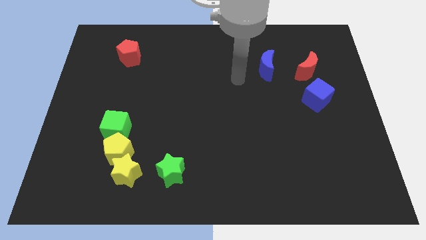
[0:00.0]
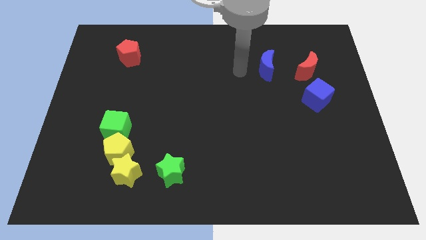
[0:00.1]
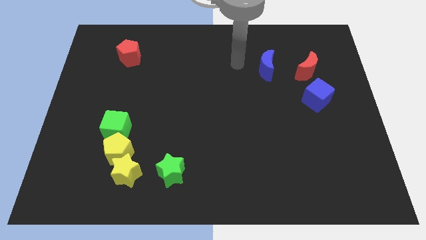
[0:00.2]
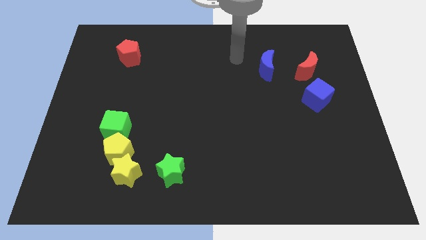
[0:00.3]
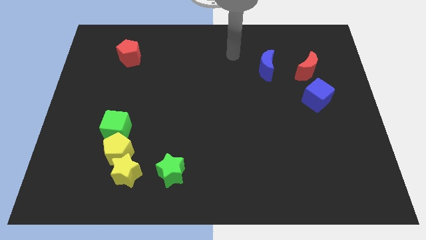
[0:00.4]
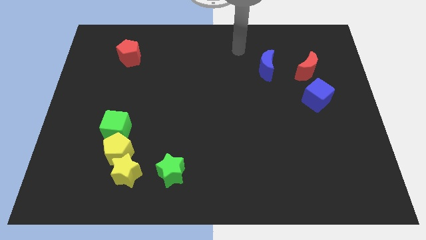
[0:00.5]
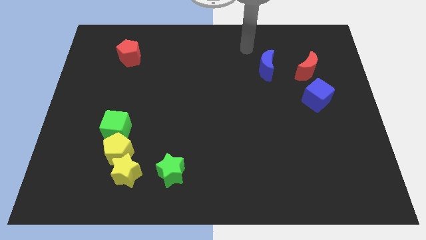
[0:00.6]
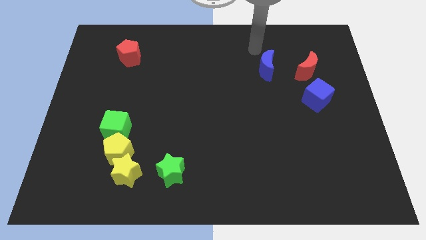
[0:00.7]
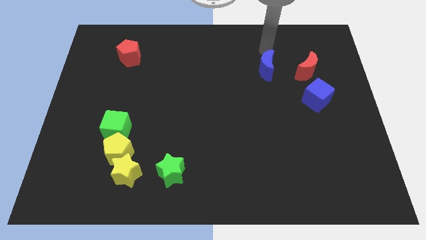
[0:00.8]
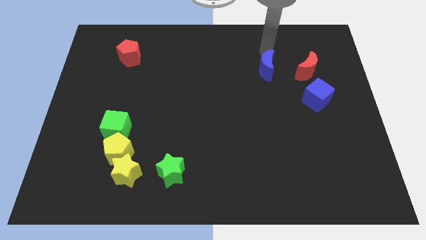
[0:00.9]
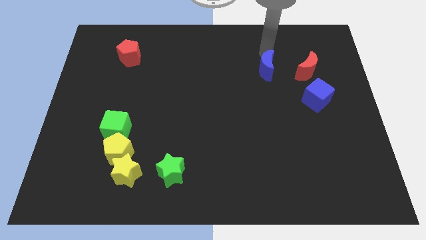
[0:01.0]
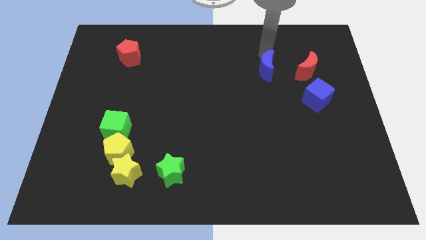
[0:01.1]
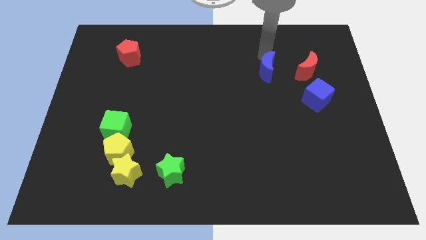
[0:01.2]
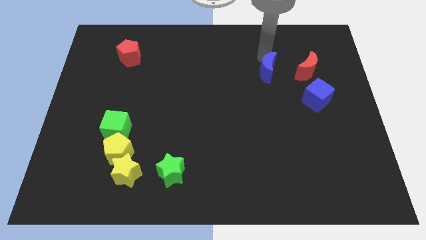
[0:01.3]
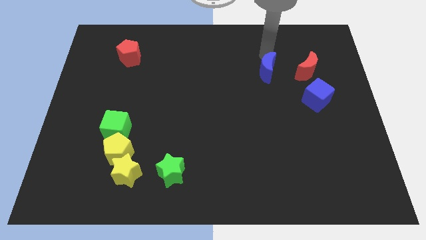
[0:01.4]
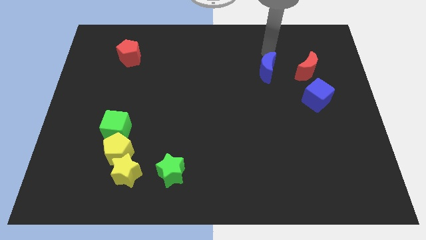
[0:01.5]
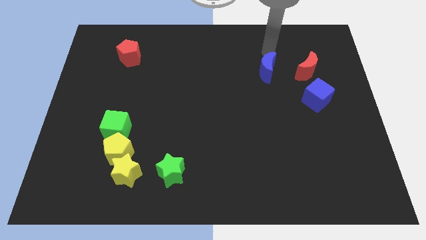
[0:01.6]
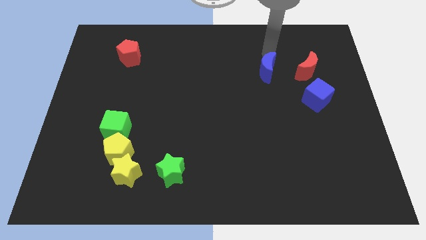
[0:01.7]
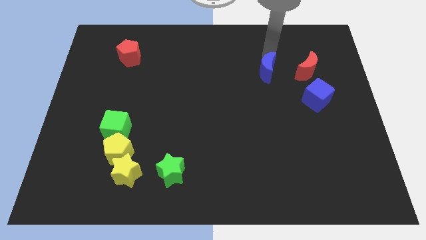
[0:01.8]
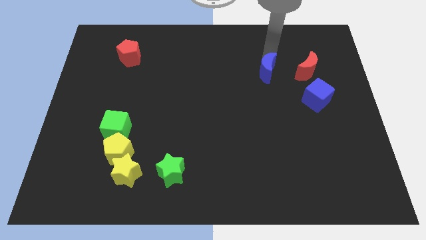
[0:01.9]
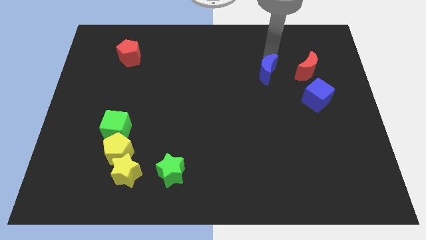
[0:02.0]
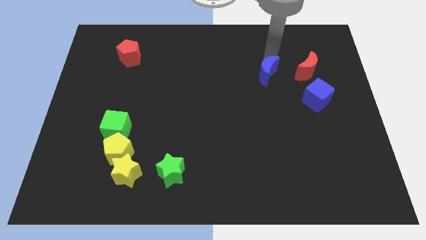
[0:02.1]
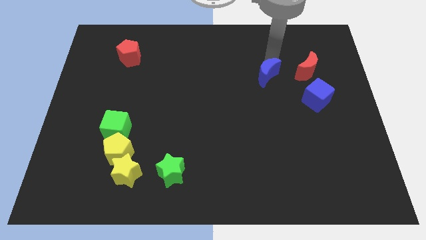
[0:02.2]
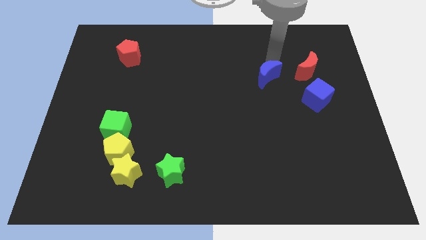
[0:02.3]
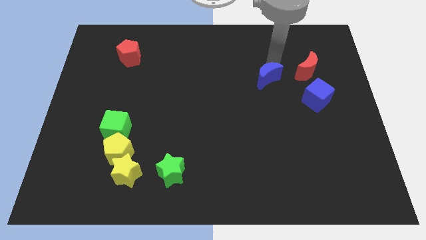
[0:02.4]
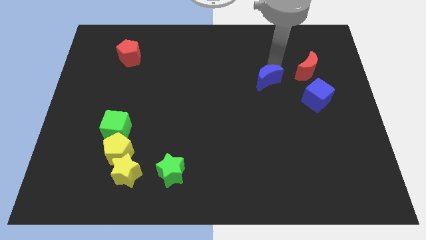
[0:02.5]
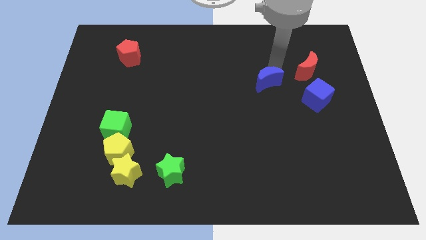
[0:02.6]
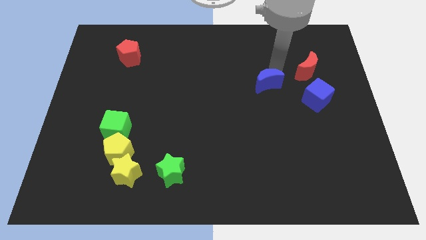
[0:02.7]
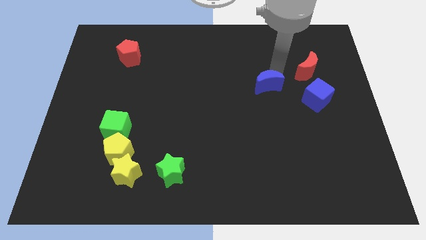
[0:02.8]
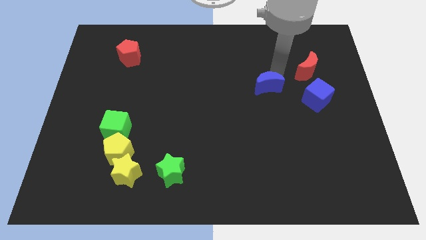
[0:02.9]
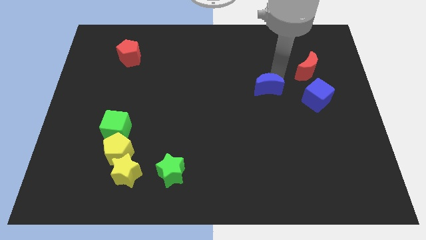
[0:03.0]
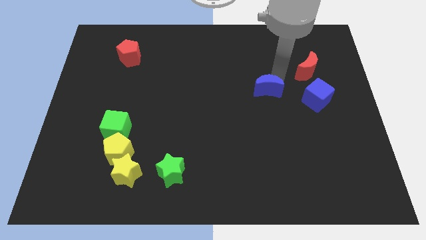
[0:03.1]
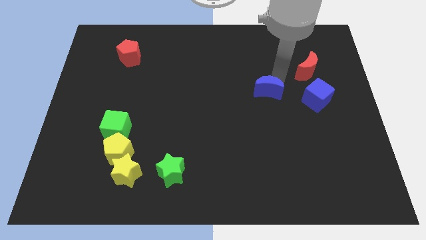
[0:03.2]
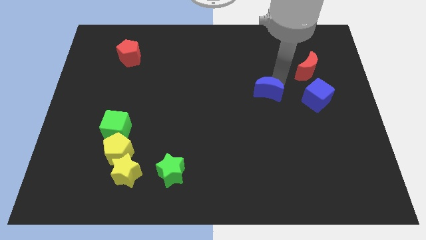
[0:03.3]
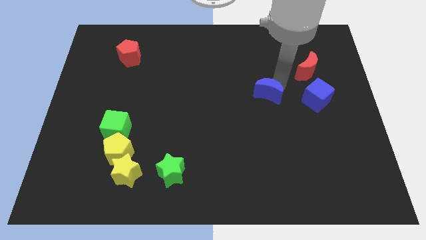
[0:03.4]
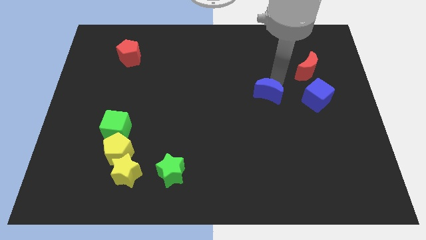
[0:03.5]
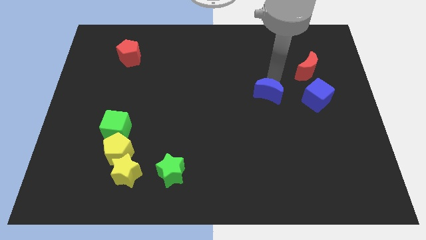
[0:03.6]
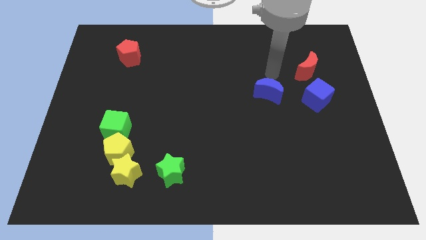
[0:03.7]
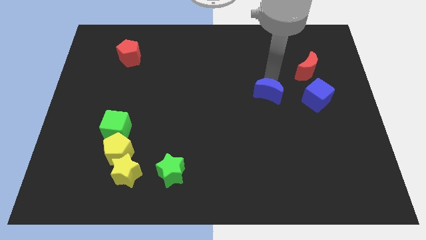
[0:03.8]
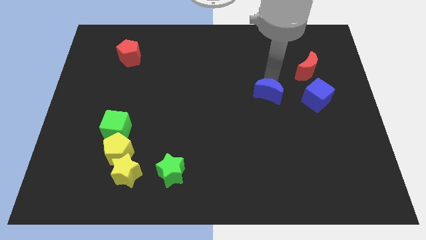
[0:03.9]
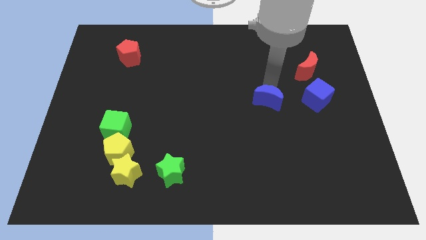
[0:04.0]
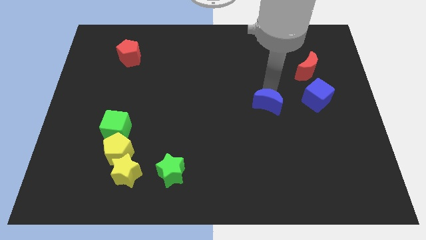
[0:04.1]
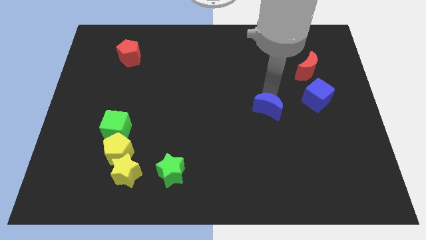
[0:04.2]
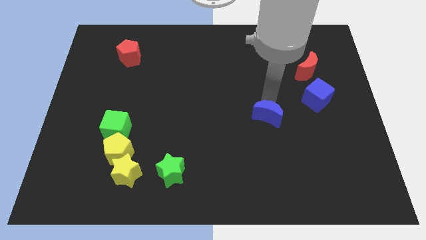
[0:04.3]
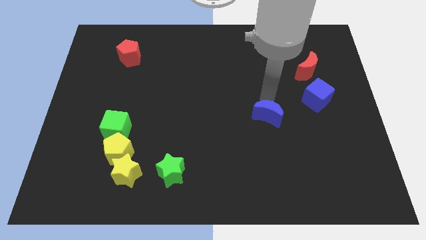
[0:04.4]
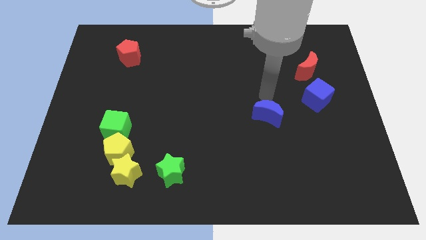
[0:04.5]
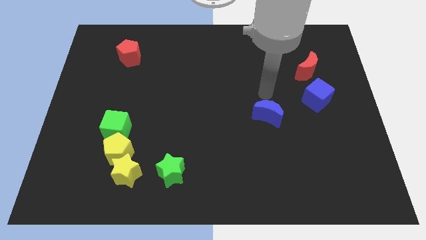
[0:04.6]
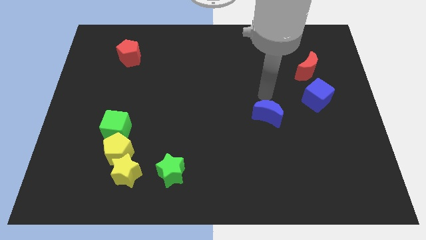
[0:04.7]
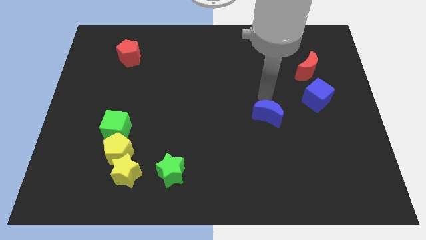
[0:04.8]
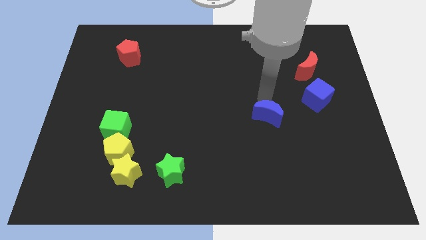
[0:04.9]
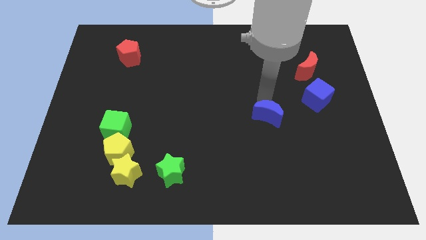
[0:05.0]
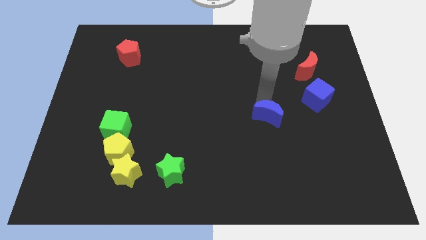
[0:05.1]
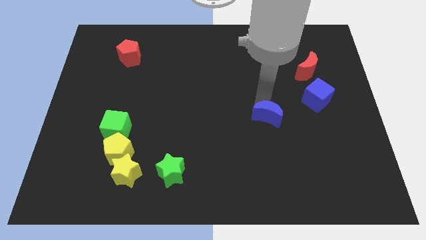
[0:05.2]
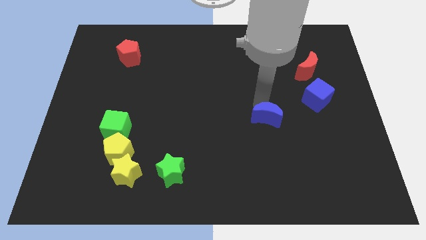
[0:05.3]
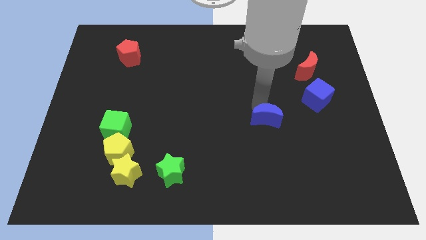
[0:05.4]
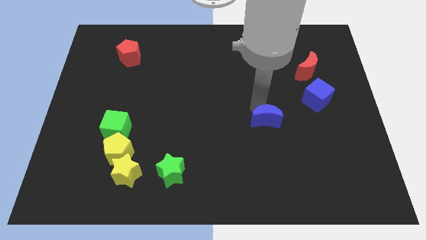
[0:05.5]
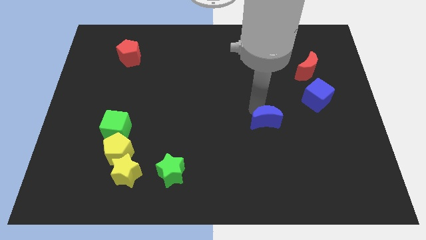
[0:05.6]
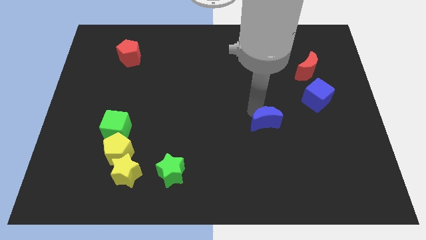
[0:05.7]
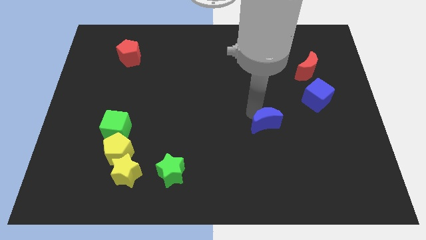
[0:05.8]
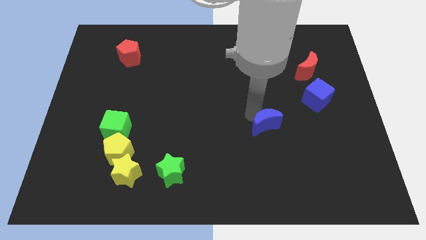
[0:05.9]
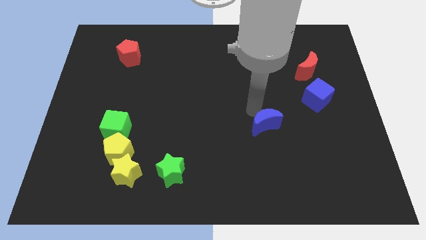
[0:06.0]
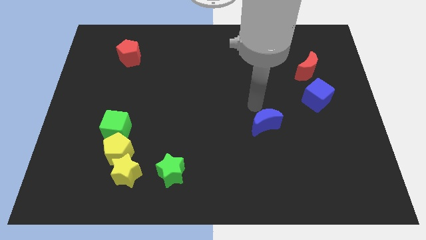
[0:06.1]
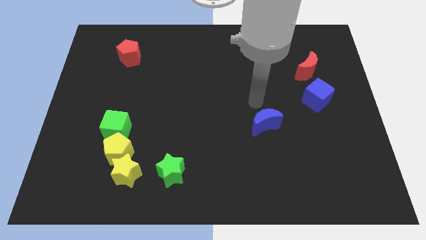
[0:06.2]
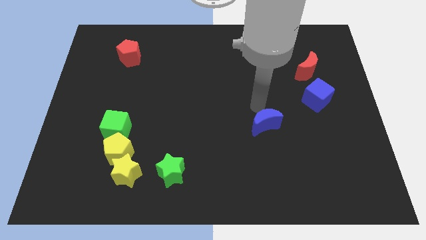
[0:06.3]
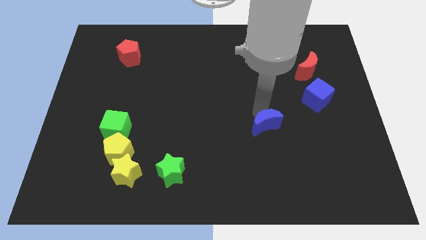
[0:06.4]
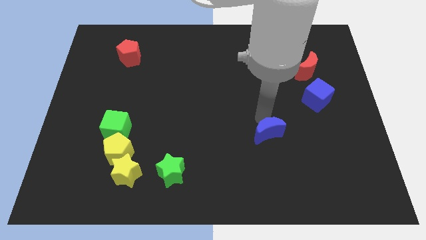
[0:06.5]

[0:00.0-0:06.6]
slide the blue moon down

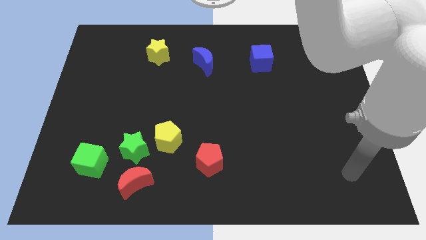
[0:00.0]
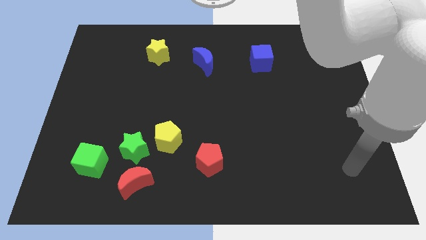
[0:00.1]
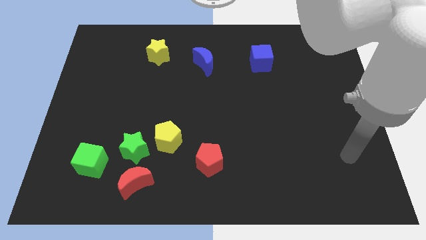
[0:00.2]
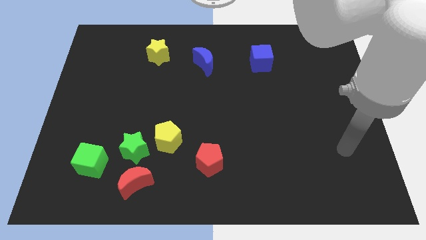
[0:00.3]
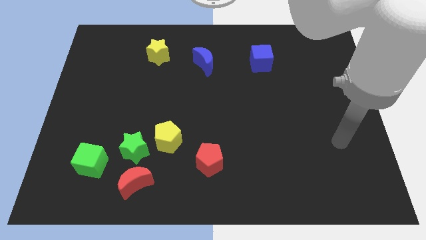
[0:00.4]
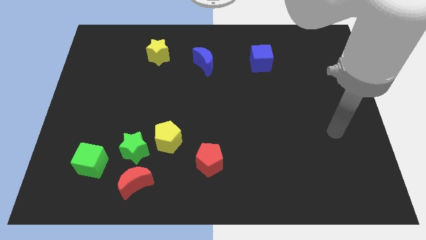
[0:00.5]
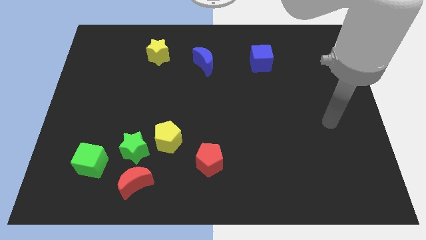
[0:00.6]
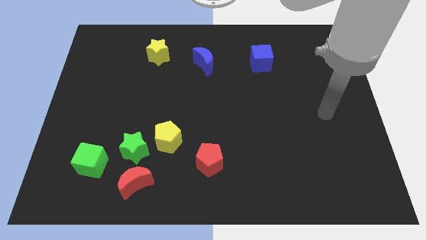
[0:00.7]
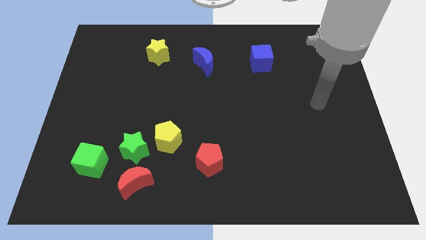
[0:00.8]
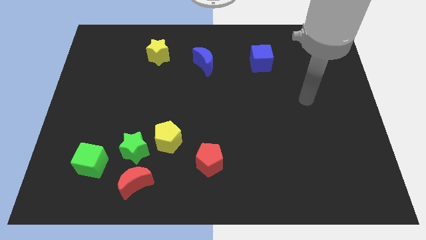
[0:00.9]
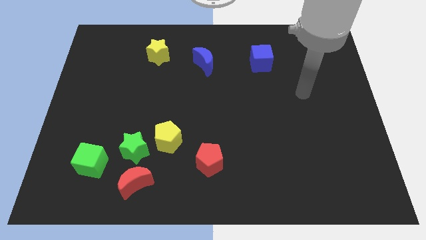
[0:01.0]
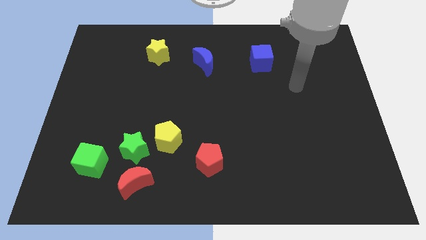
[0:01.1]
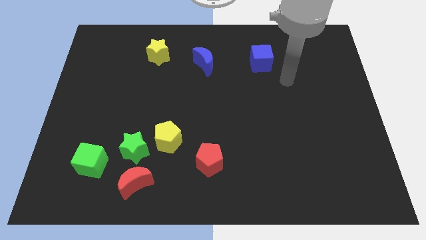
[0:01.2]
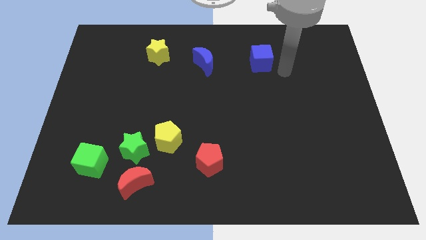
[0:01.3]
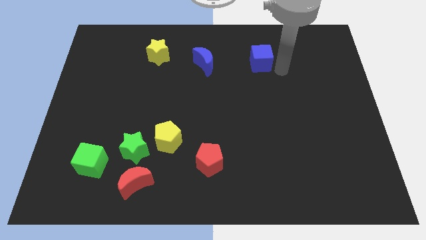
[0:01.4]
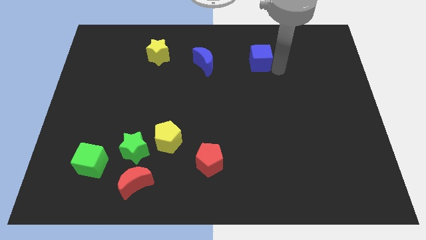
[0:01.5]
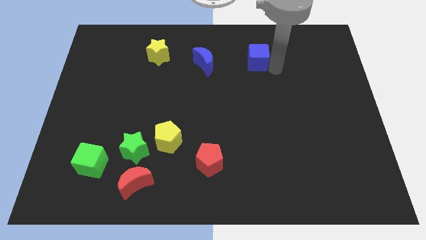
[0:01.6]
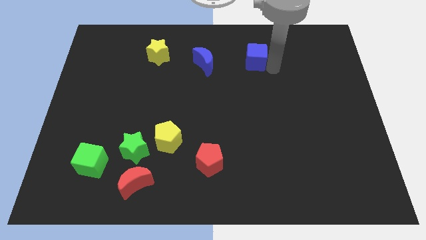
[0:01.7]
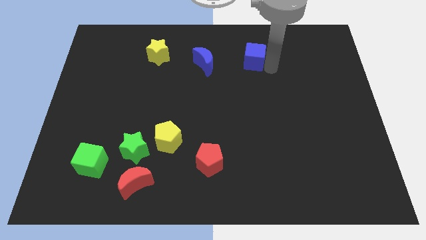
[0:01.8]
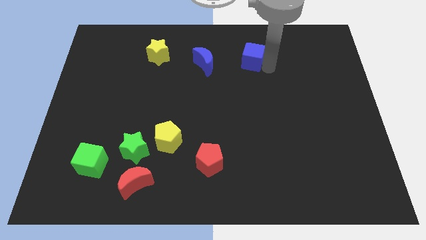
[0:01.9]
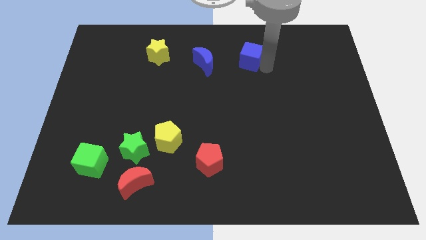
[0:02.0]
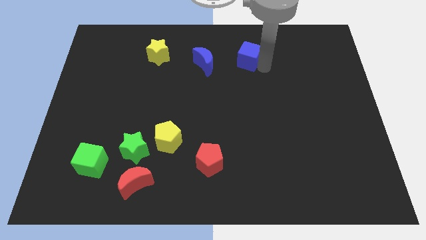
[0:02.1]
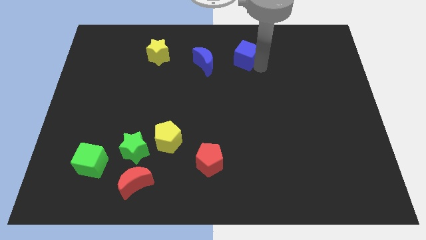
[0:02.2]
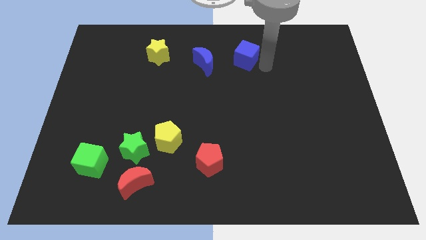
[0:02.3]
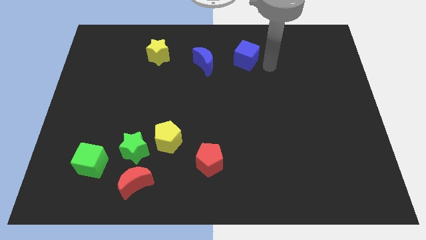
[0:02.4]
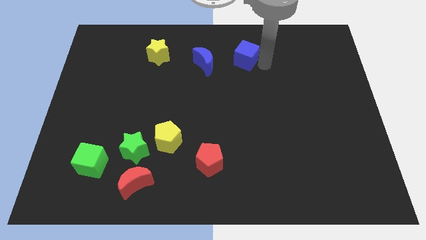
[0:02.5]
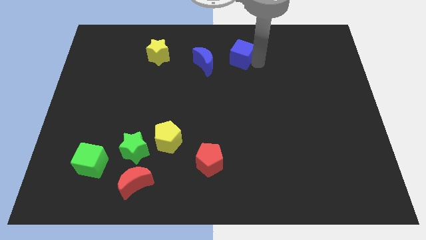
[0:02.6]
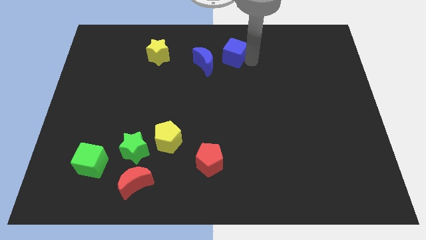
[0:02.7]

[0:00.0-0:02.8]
slide the blue cube slightly left
